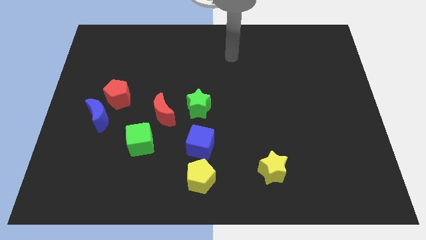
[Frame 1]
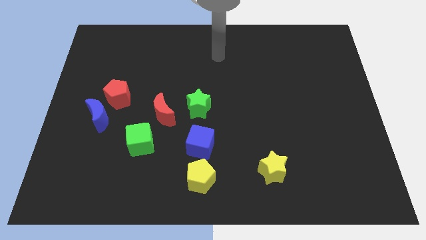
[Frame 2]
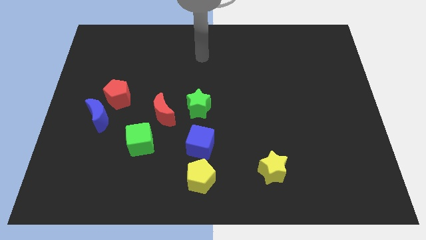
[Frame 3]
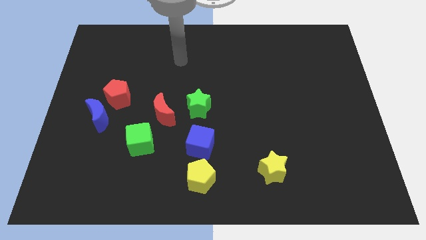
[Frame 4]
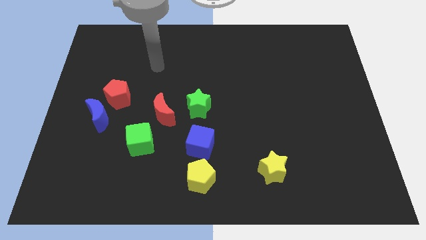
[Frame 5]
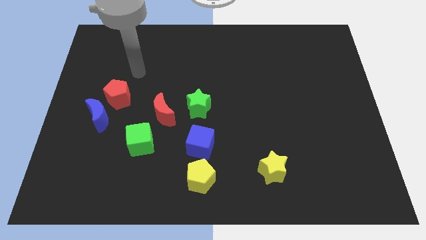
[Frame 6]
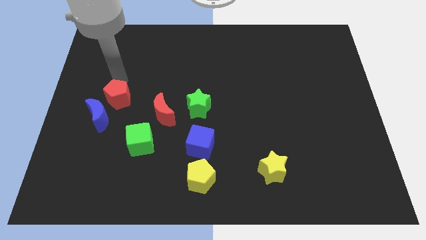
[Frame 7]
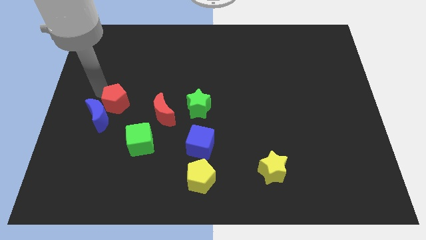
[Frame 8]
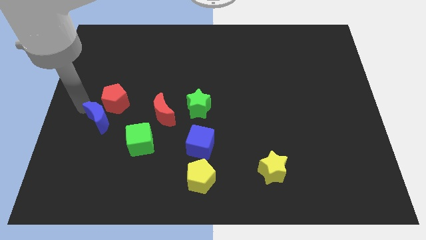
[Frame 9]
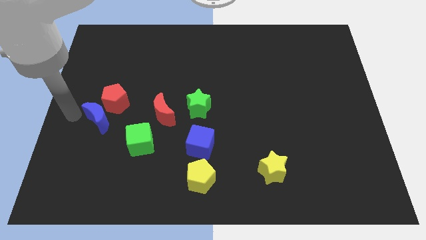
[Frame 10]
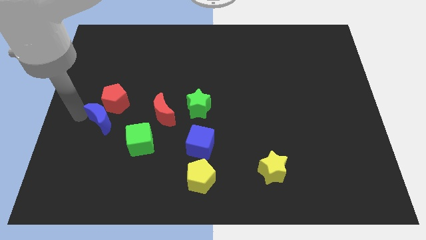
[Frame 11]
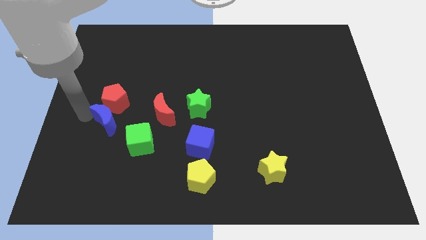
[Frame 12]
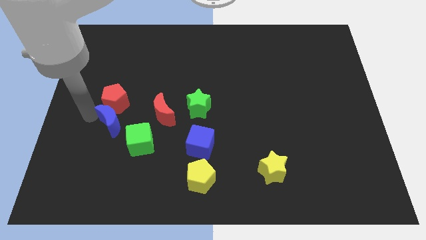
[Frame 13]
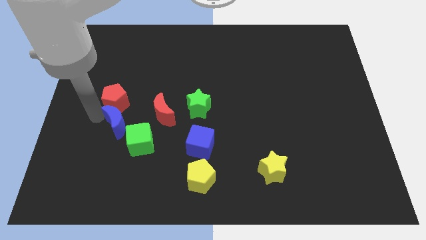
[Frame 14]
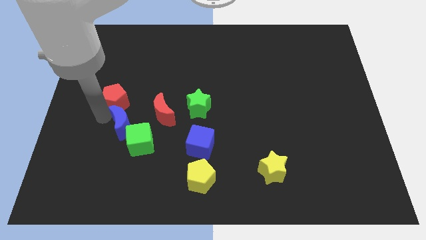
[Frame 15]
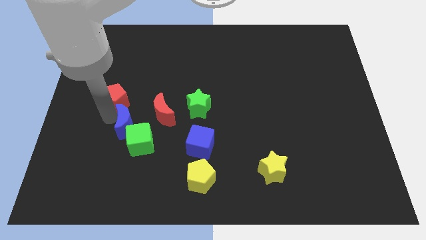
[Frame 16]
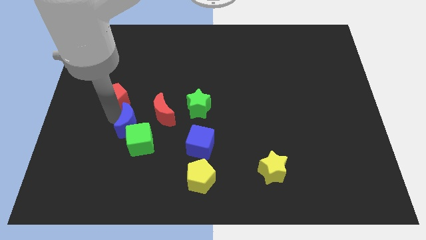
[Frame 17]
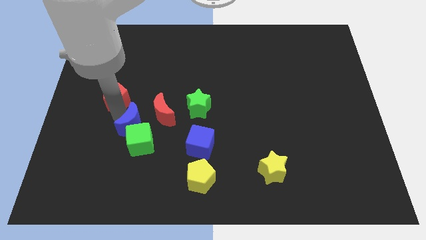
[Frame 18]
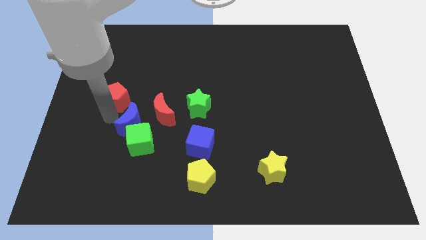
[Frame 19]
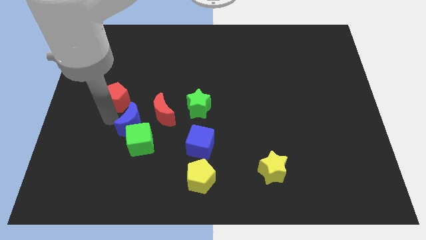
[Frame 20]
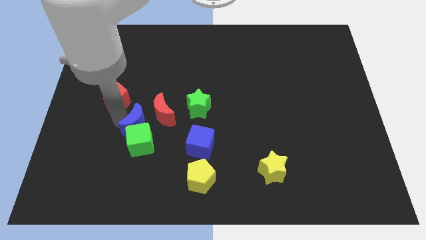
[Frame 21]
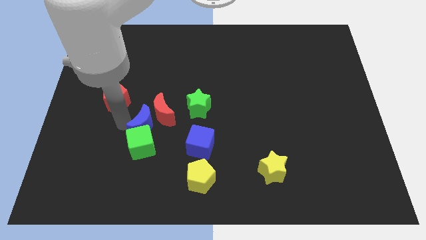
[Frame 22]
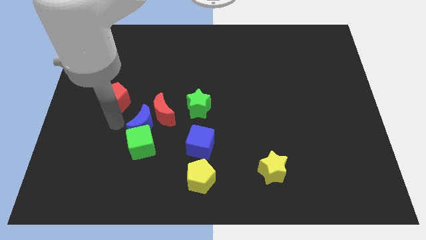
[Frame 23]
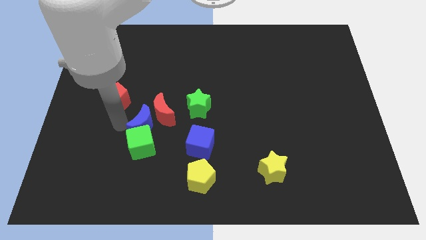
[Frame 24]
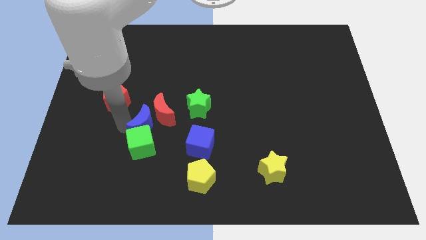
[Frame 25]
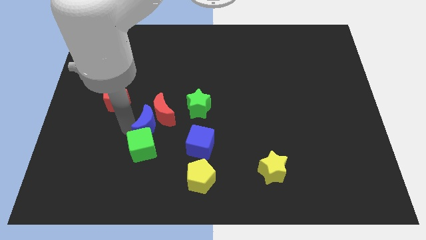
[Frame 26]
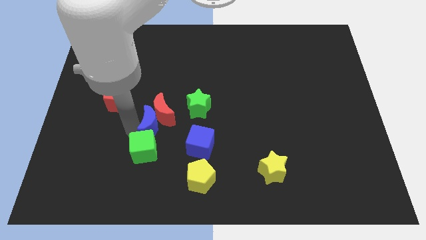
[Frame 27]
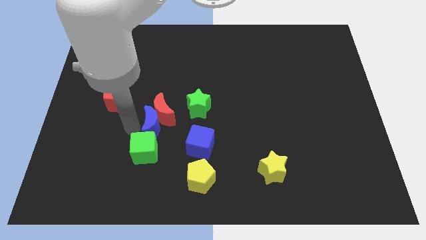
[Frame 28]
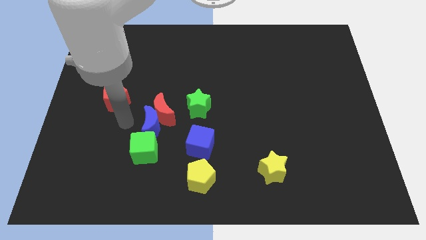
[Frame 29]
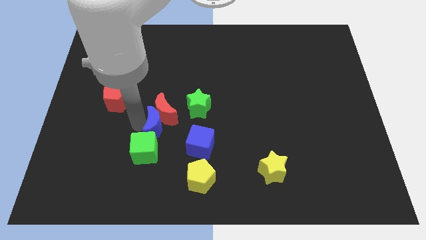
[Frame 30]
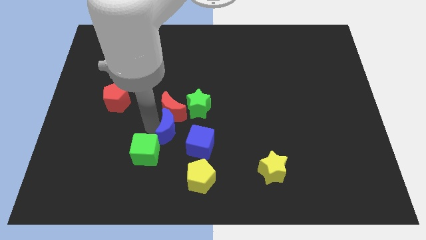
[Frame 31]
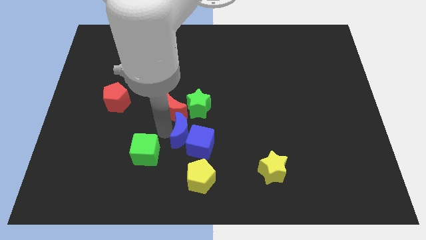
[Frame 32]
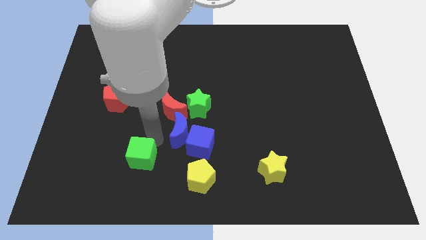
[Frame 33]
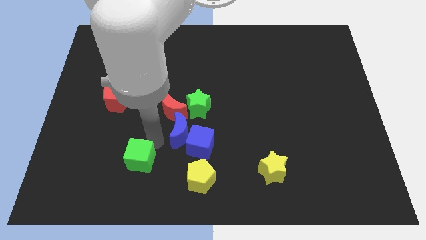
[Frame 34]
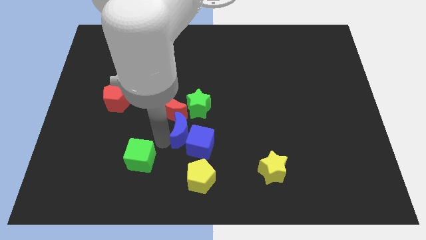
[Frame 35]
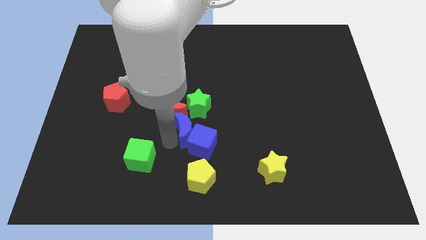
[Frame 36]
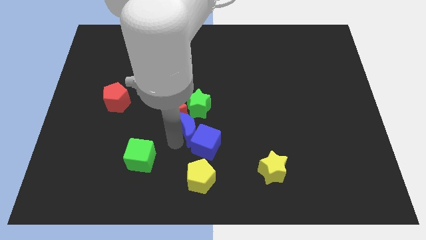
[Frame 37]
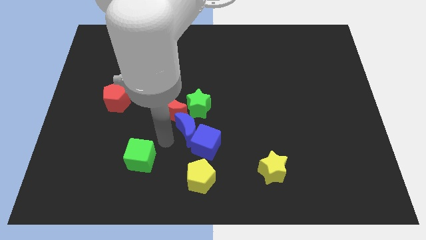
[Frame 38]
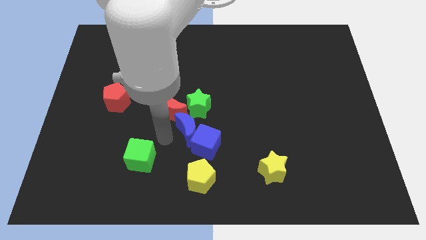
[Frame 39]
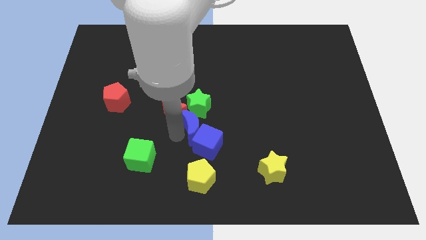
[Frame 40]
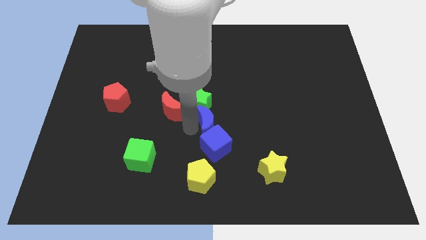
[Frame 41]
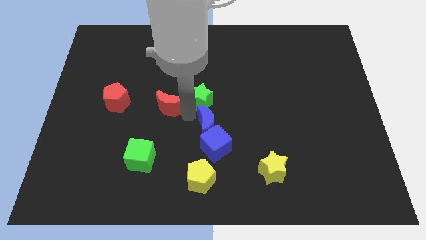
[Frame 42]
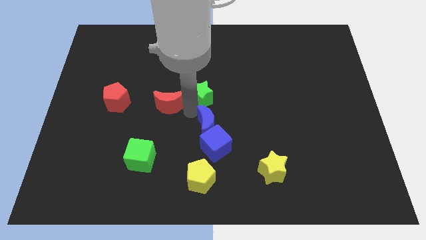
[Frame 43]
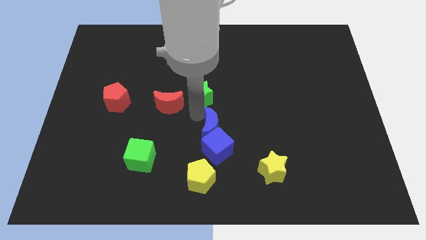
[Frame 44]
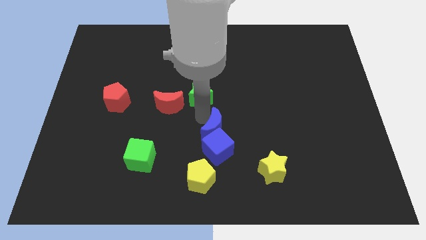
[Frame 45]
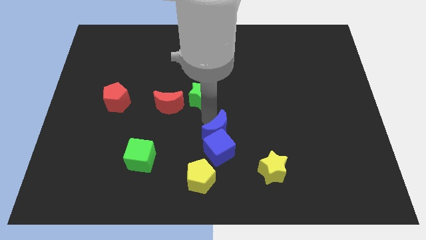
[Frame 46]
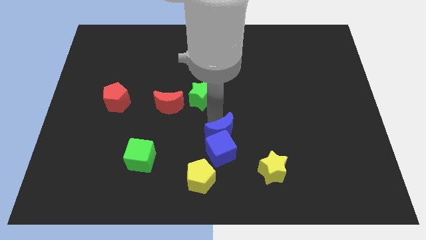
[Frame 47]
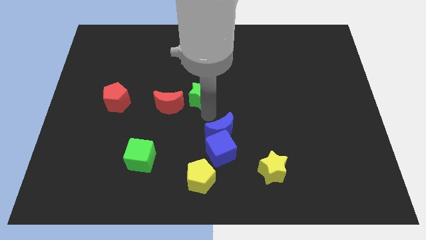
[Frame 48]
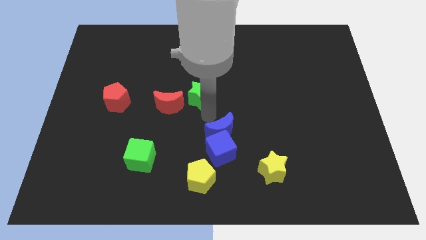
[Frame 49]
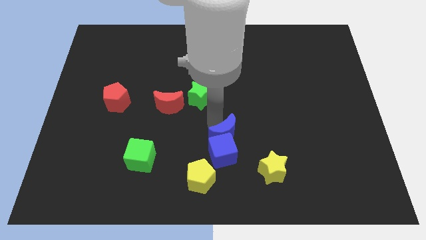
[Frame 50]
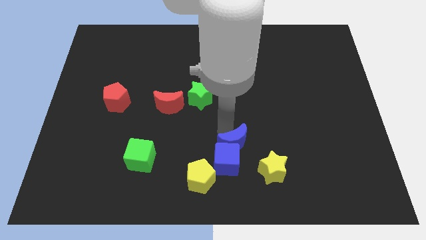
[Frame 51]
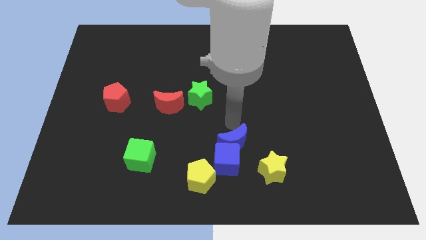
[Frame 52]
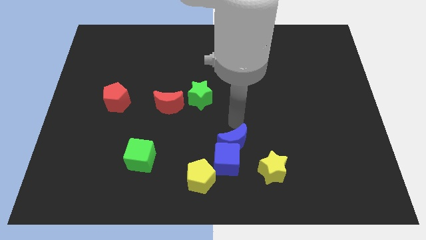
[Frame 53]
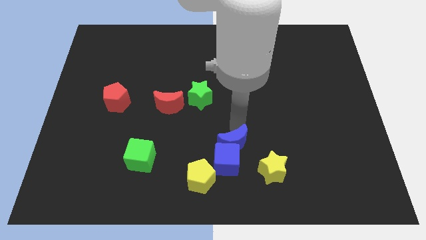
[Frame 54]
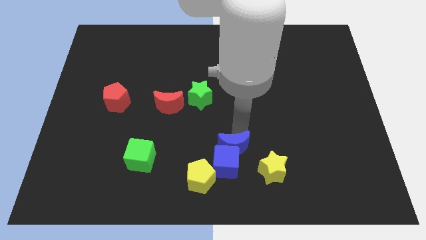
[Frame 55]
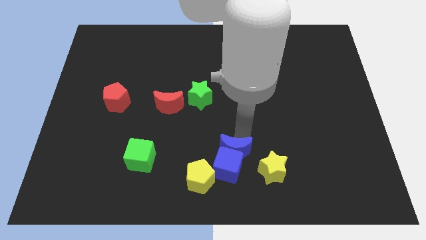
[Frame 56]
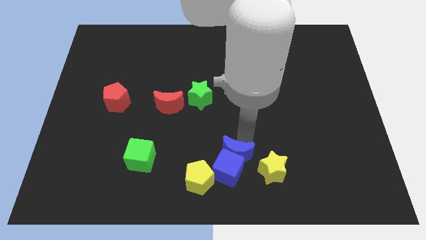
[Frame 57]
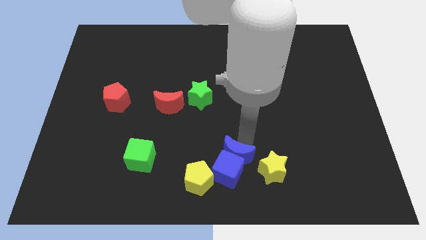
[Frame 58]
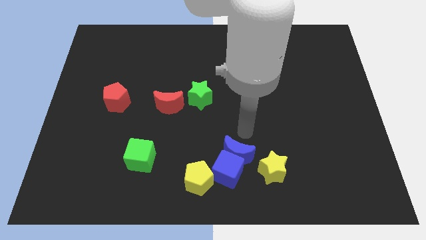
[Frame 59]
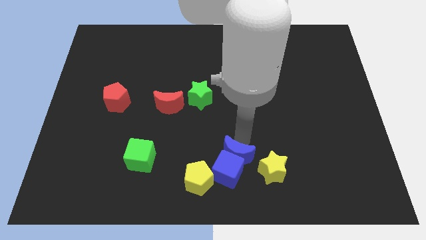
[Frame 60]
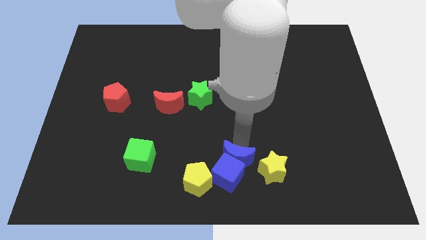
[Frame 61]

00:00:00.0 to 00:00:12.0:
put the blue moon just right of the yellow pentagon

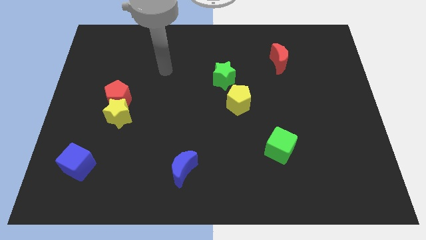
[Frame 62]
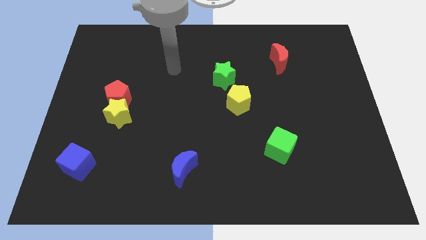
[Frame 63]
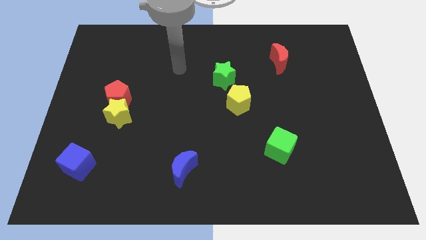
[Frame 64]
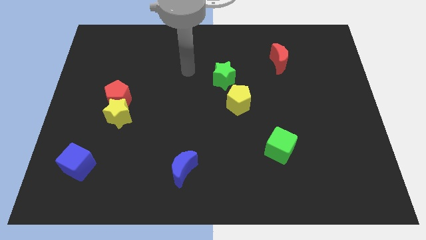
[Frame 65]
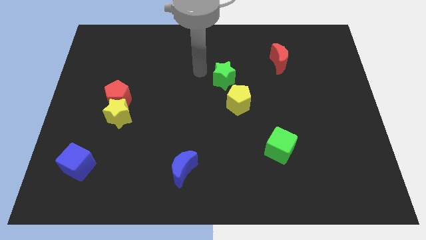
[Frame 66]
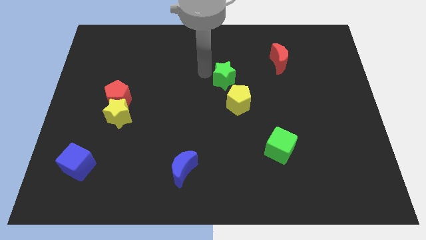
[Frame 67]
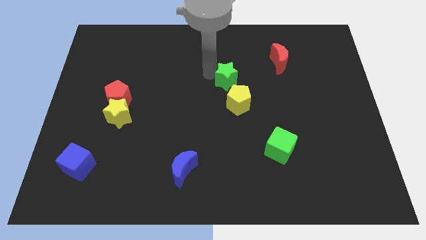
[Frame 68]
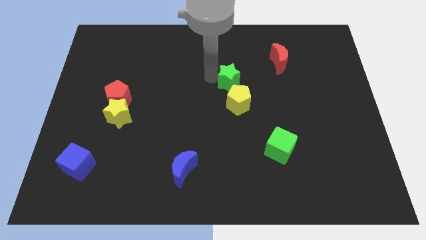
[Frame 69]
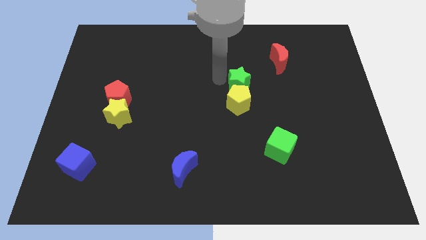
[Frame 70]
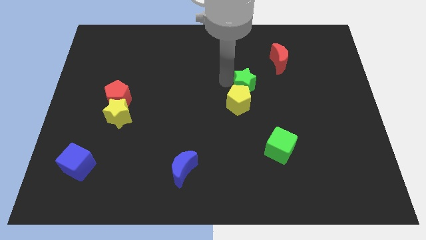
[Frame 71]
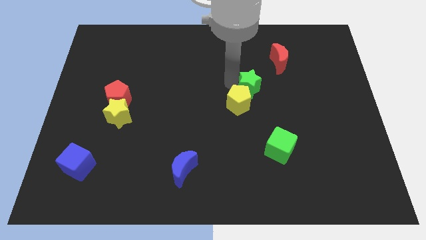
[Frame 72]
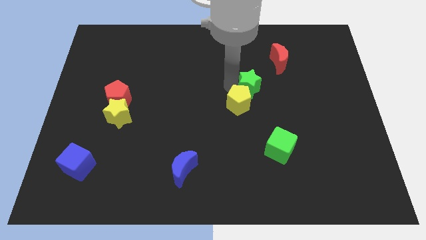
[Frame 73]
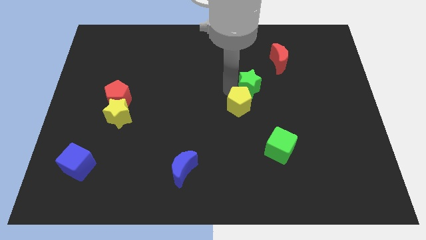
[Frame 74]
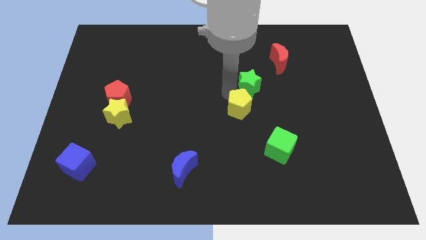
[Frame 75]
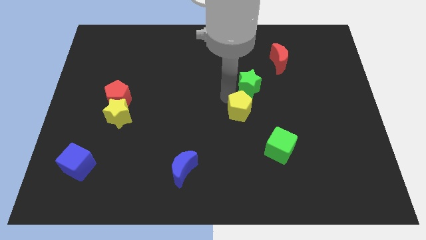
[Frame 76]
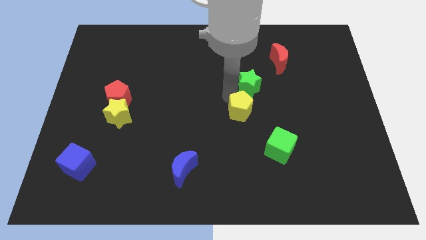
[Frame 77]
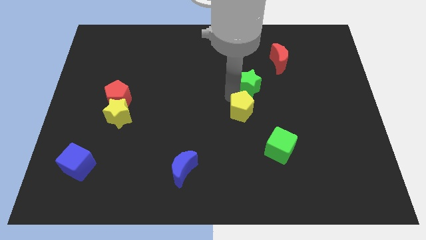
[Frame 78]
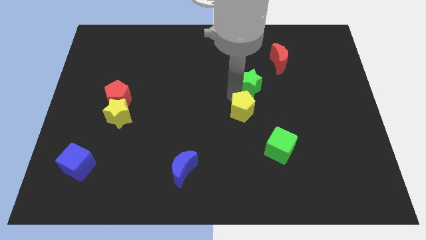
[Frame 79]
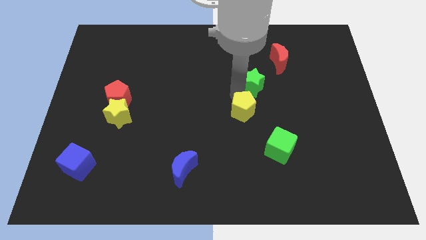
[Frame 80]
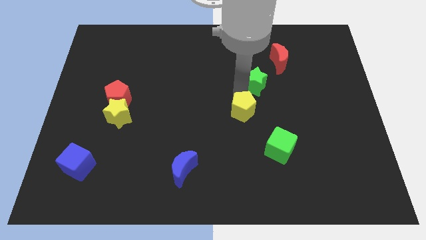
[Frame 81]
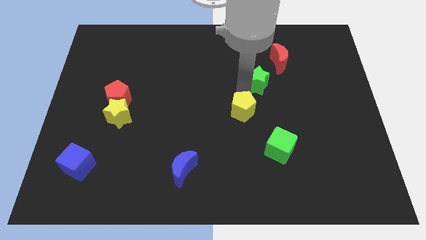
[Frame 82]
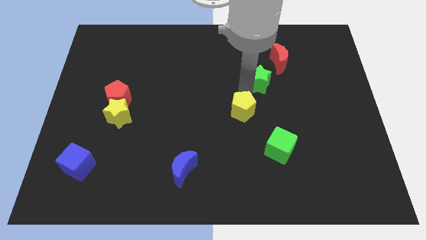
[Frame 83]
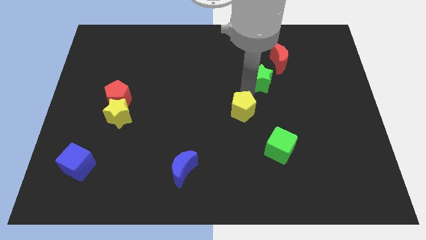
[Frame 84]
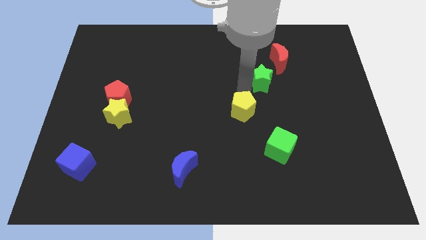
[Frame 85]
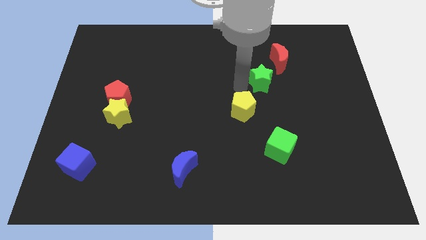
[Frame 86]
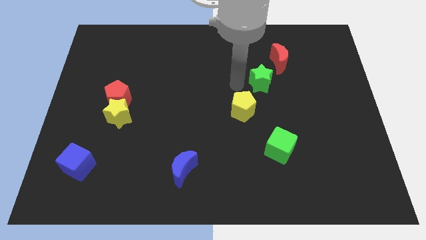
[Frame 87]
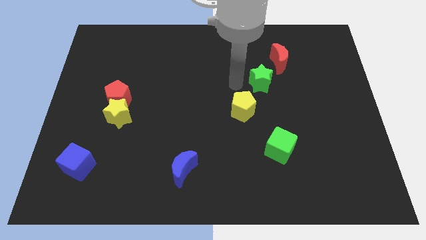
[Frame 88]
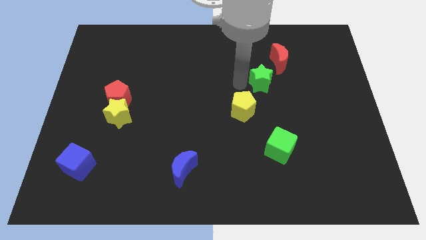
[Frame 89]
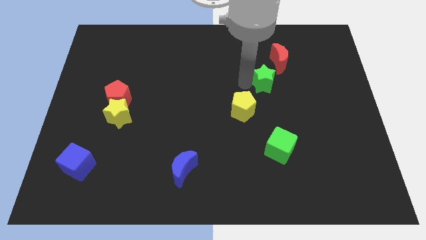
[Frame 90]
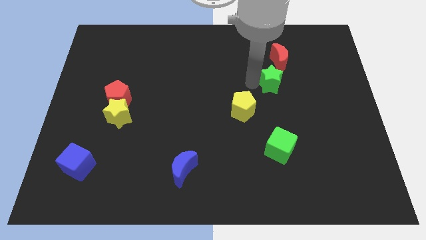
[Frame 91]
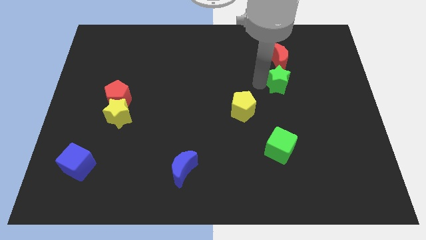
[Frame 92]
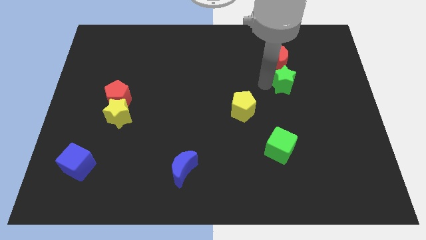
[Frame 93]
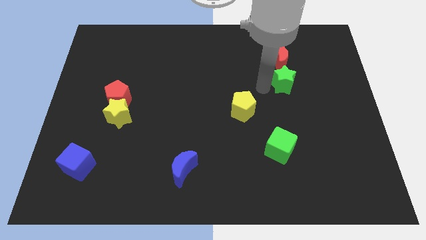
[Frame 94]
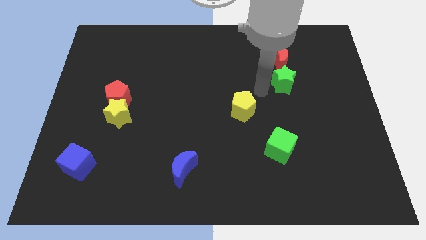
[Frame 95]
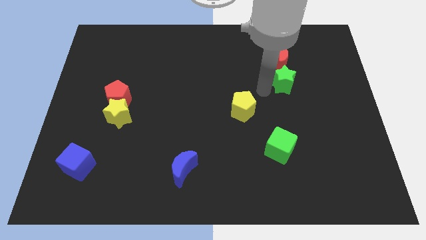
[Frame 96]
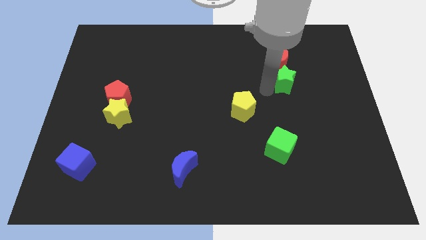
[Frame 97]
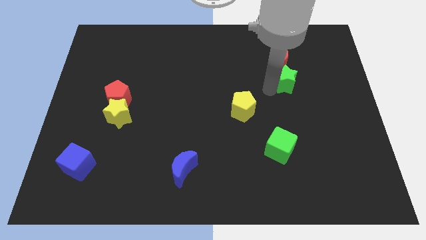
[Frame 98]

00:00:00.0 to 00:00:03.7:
push the green star to the bottom right of the red moon
